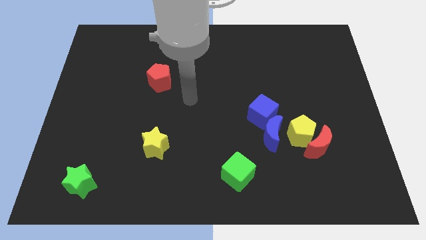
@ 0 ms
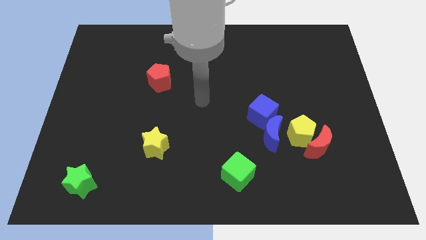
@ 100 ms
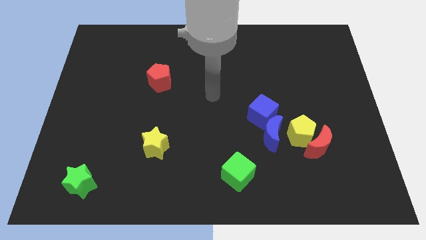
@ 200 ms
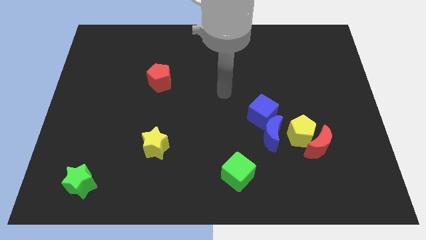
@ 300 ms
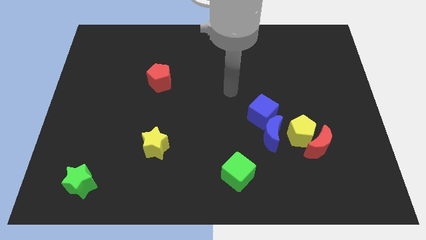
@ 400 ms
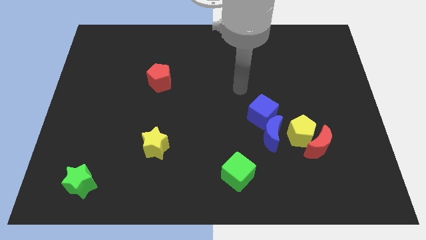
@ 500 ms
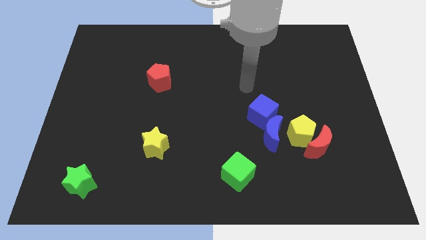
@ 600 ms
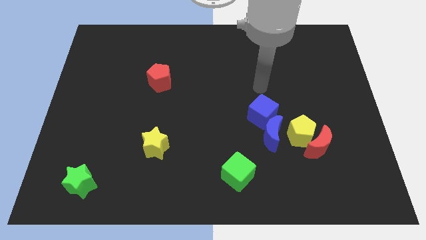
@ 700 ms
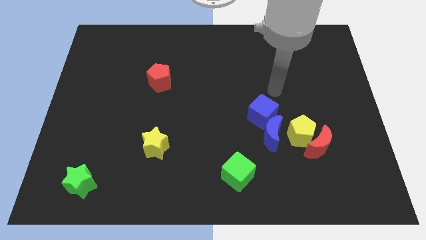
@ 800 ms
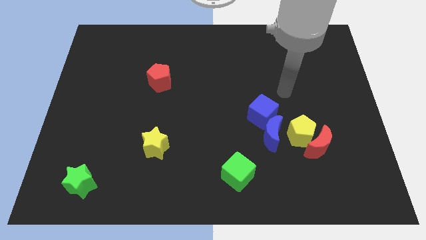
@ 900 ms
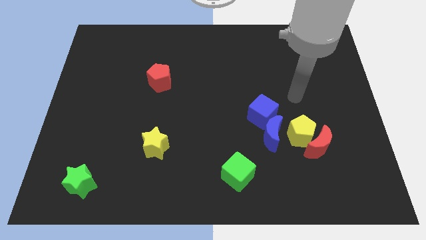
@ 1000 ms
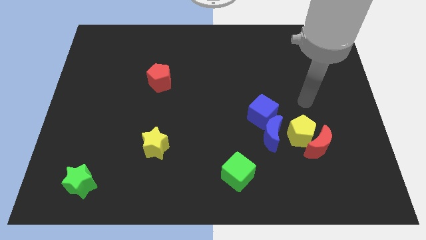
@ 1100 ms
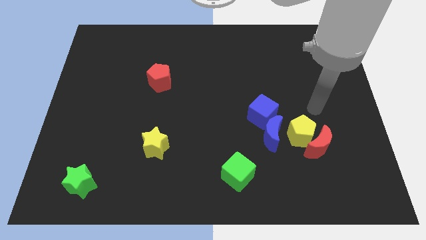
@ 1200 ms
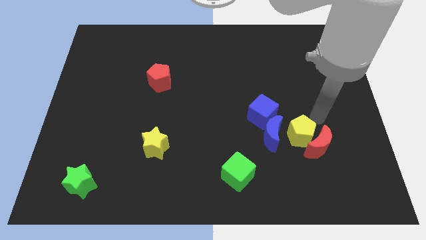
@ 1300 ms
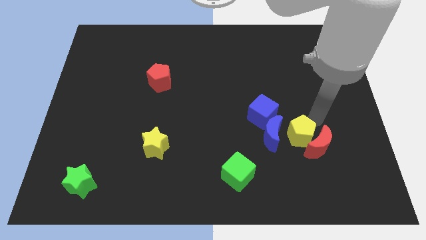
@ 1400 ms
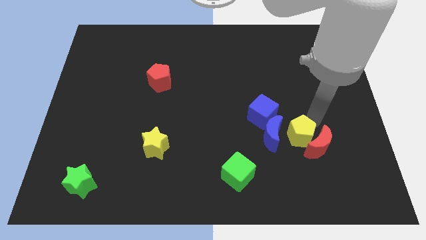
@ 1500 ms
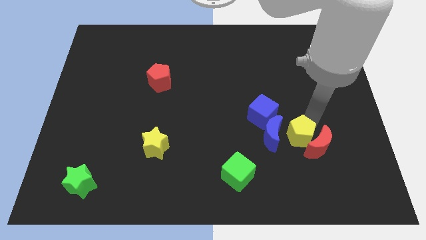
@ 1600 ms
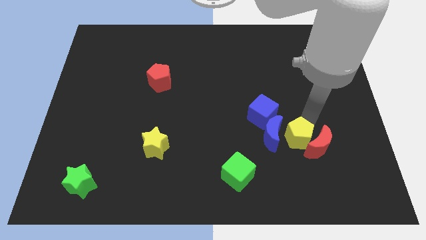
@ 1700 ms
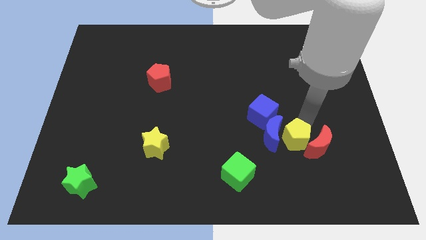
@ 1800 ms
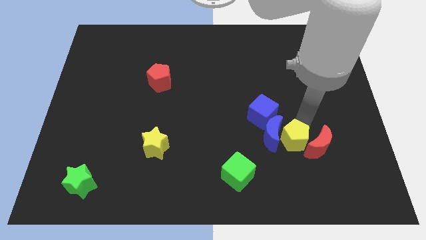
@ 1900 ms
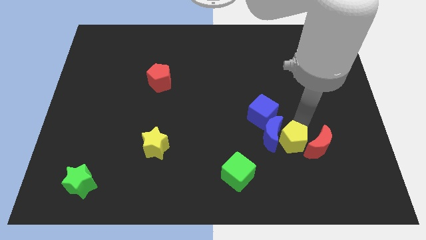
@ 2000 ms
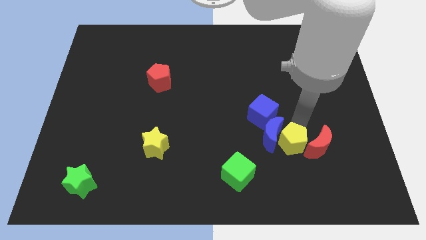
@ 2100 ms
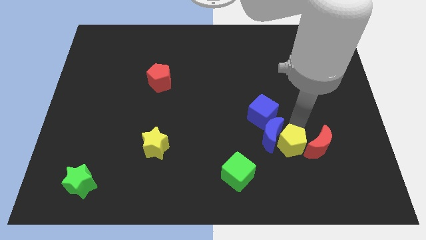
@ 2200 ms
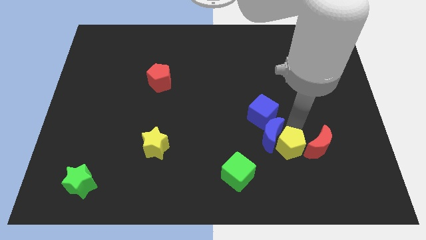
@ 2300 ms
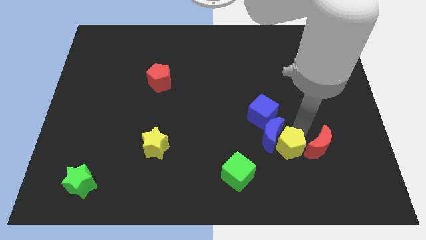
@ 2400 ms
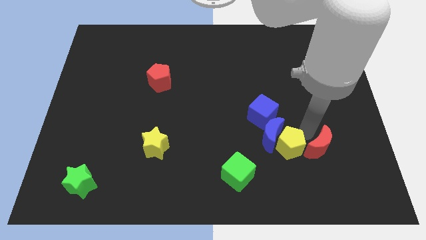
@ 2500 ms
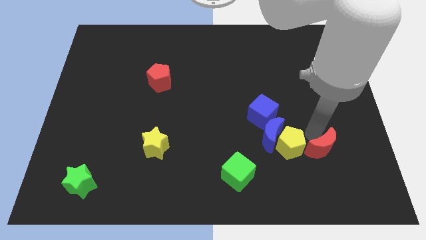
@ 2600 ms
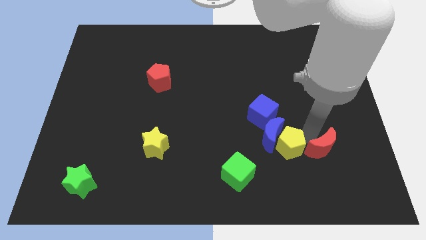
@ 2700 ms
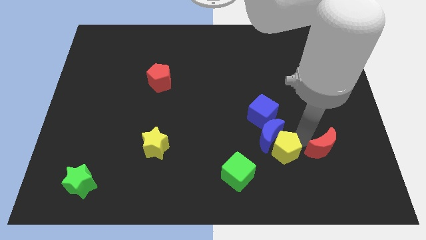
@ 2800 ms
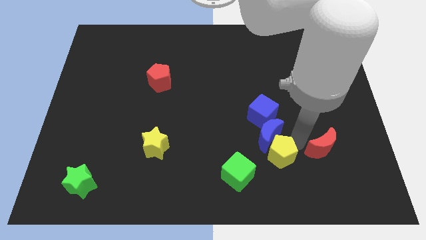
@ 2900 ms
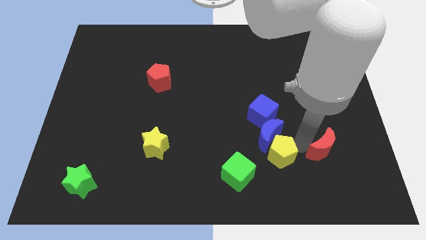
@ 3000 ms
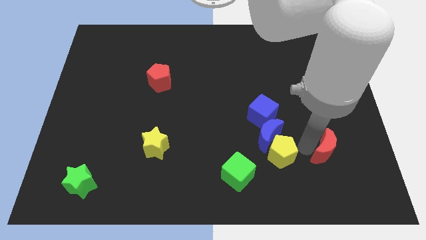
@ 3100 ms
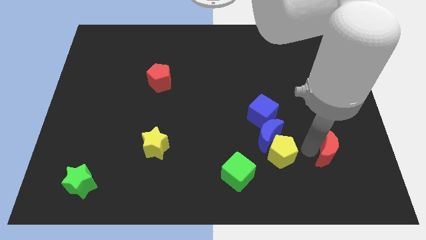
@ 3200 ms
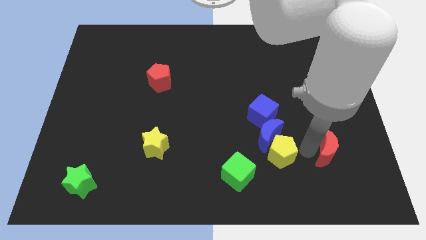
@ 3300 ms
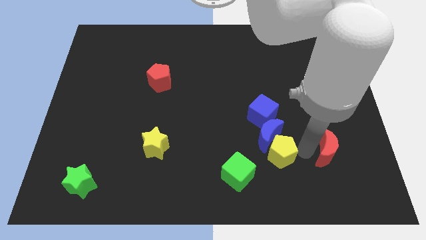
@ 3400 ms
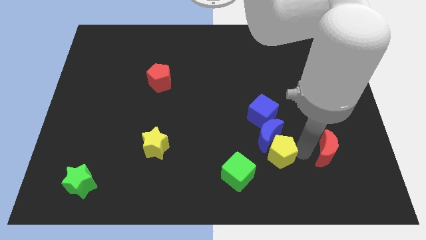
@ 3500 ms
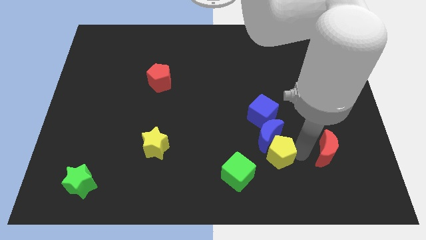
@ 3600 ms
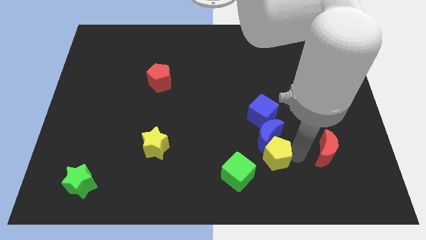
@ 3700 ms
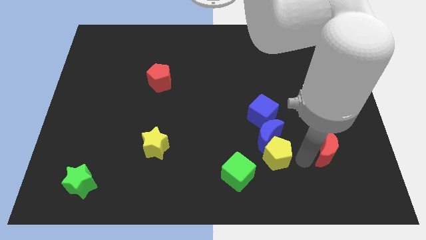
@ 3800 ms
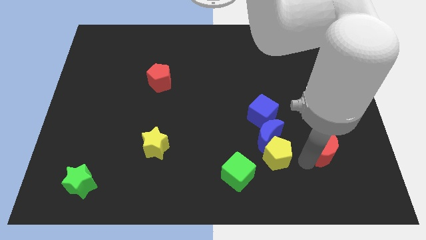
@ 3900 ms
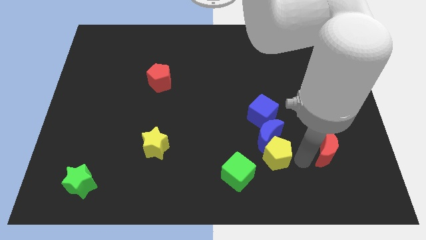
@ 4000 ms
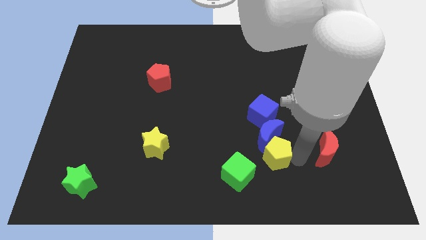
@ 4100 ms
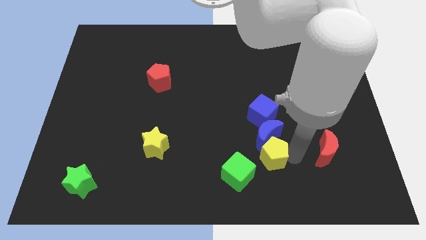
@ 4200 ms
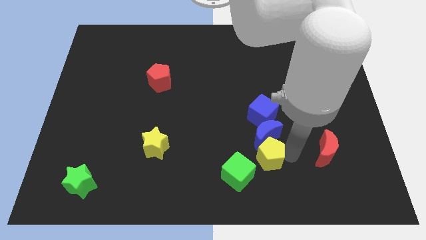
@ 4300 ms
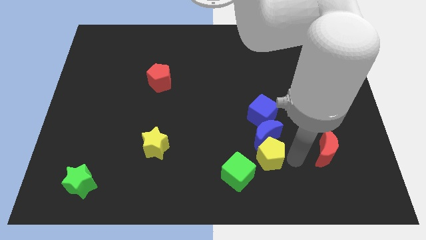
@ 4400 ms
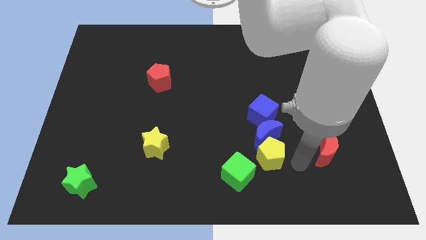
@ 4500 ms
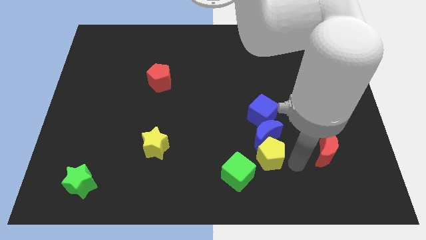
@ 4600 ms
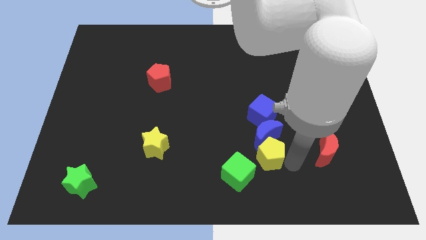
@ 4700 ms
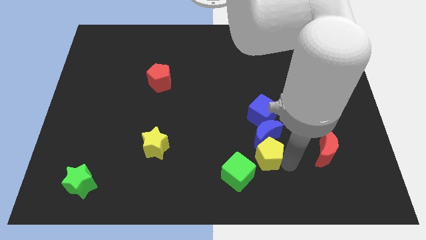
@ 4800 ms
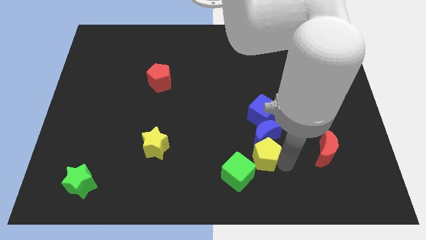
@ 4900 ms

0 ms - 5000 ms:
move the yellow pentagon to the left a little

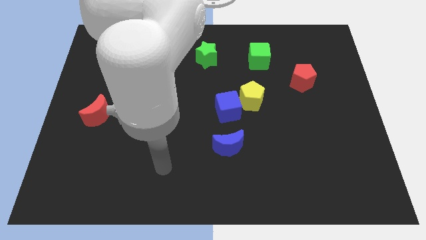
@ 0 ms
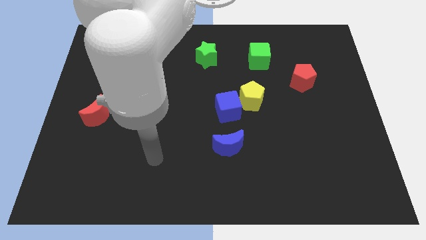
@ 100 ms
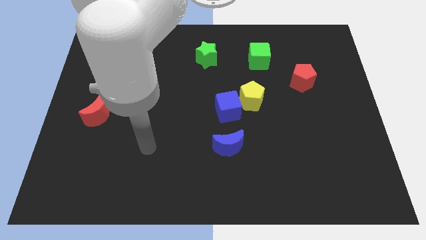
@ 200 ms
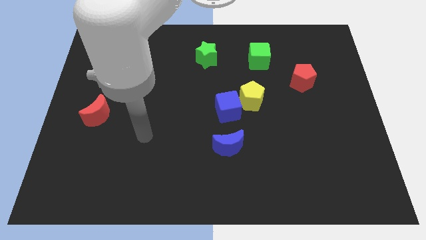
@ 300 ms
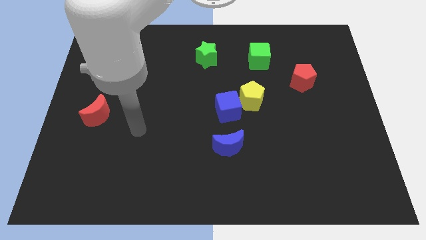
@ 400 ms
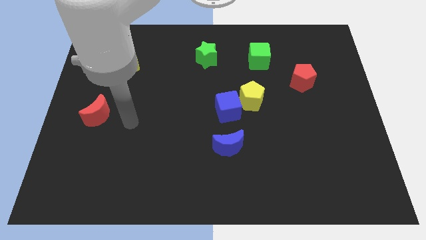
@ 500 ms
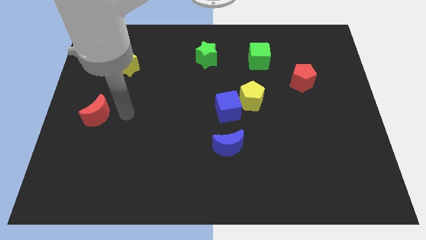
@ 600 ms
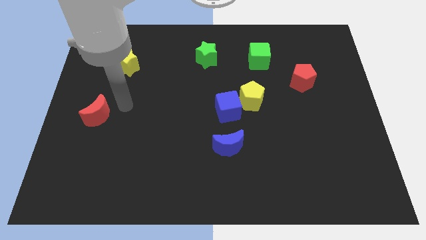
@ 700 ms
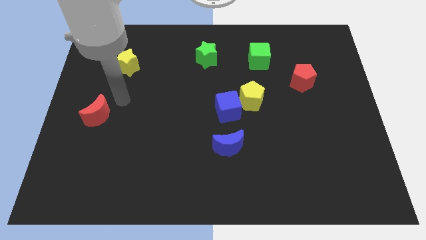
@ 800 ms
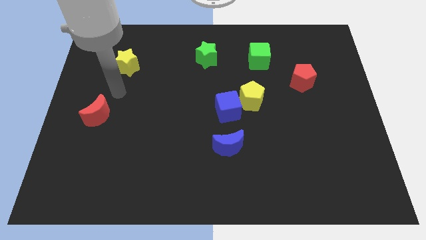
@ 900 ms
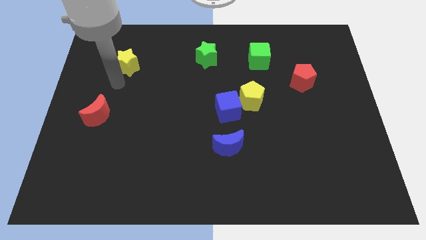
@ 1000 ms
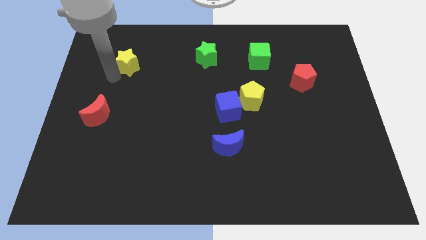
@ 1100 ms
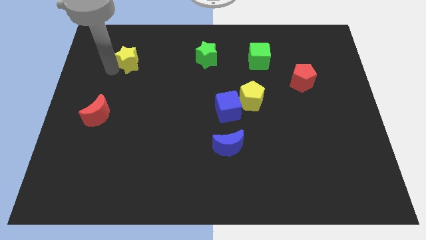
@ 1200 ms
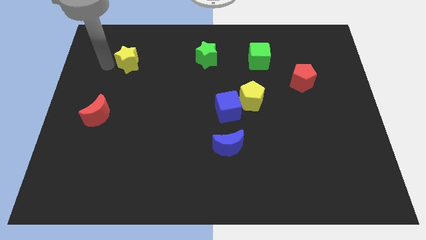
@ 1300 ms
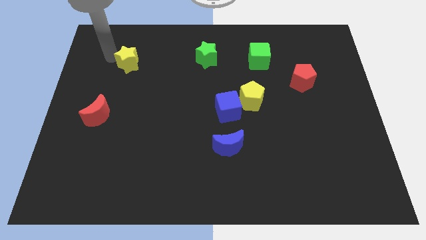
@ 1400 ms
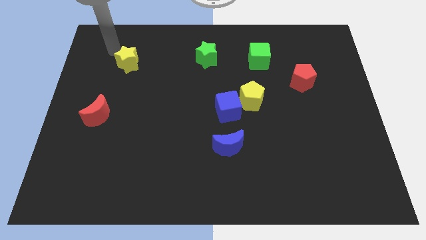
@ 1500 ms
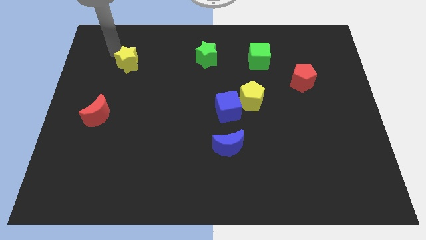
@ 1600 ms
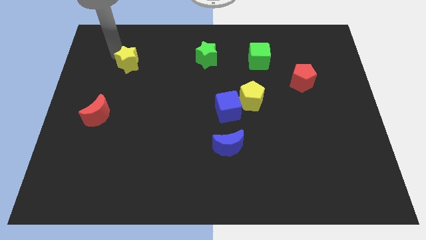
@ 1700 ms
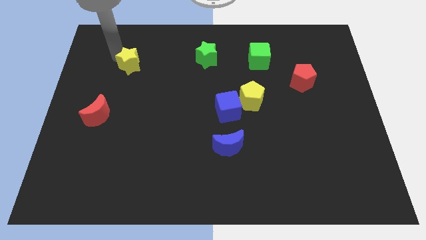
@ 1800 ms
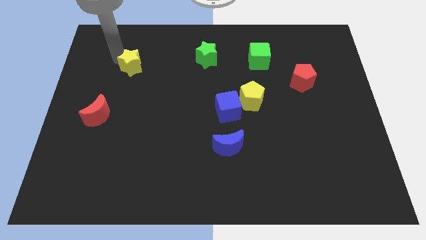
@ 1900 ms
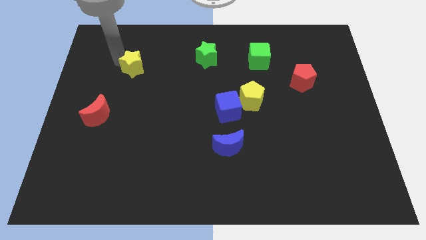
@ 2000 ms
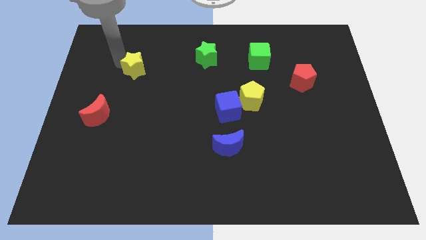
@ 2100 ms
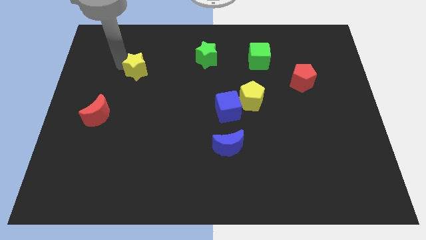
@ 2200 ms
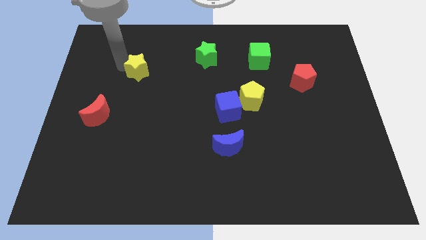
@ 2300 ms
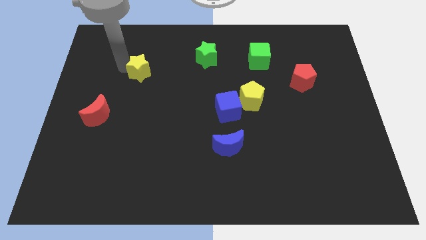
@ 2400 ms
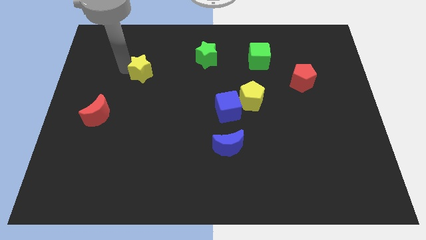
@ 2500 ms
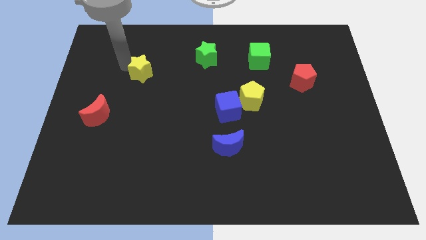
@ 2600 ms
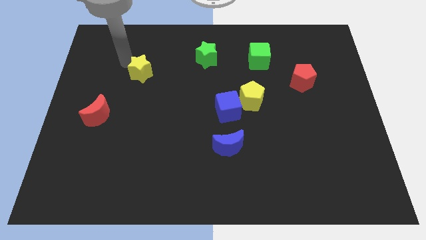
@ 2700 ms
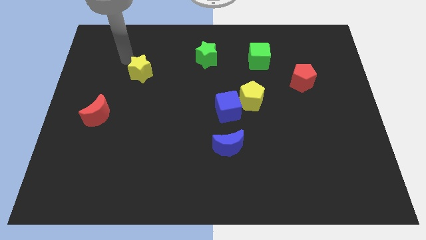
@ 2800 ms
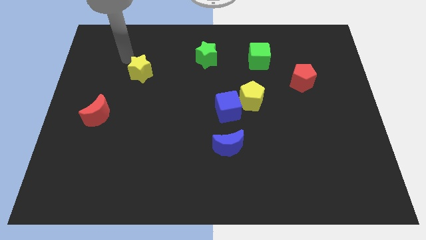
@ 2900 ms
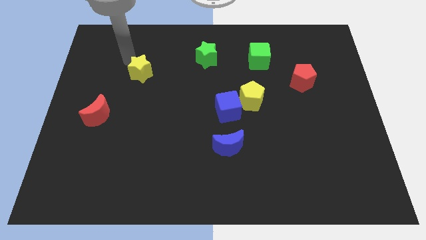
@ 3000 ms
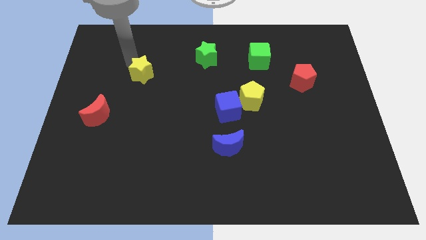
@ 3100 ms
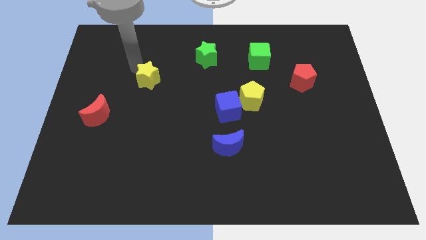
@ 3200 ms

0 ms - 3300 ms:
move the yellow star a little down and right
